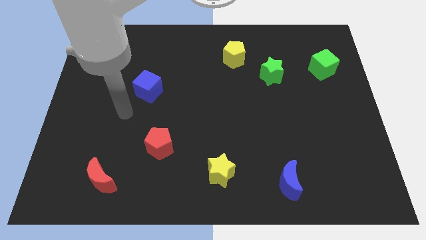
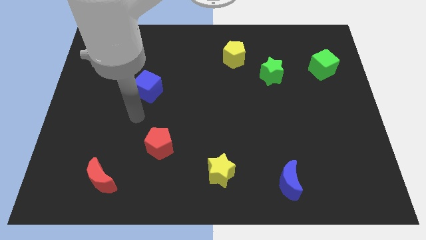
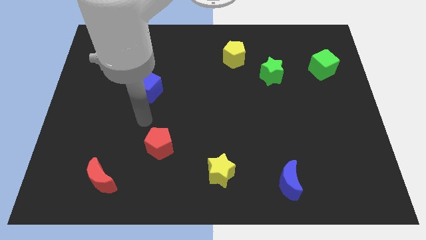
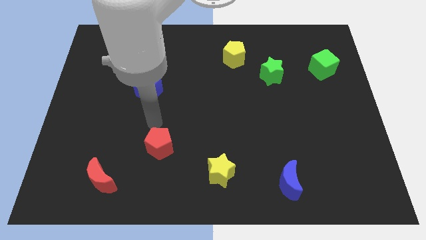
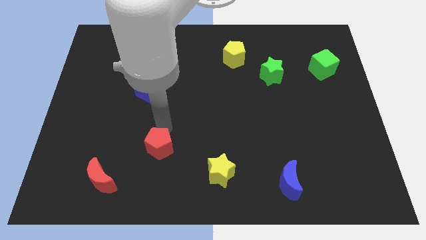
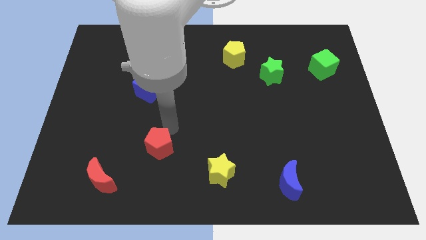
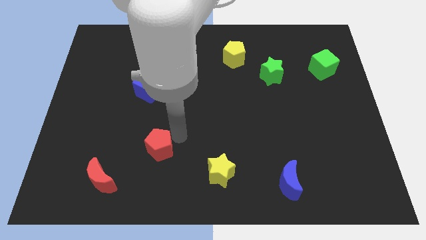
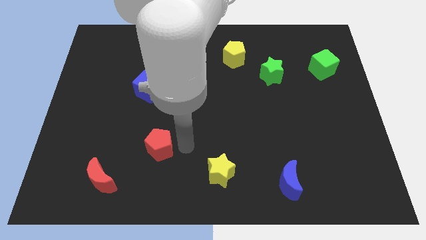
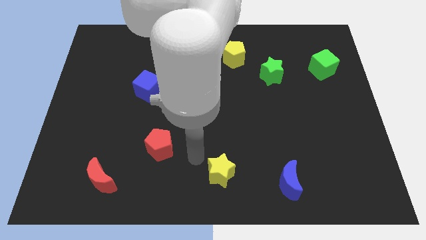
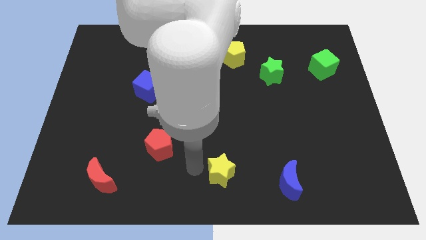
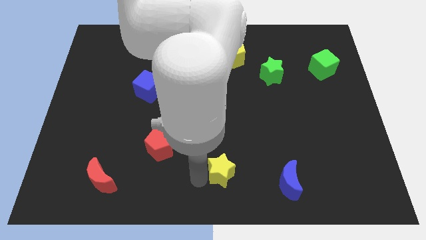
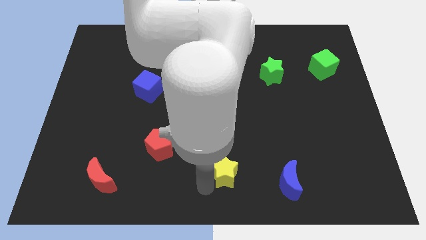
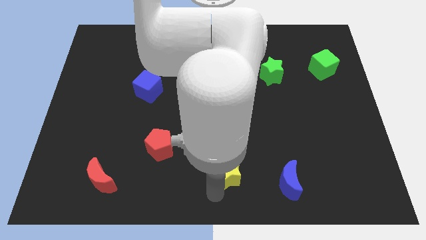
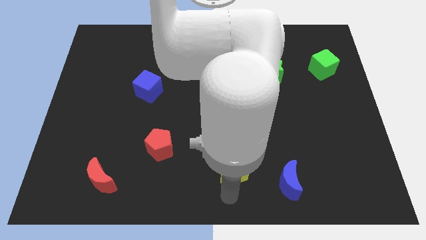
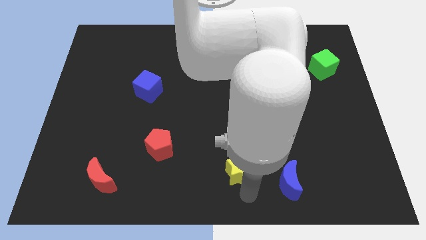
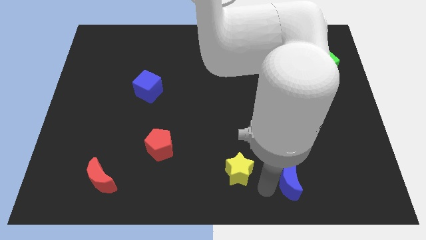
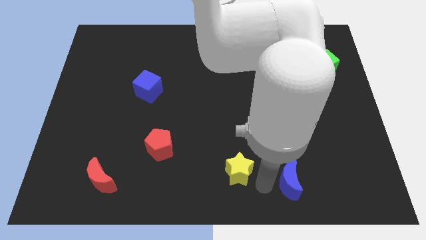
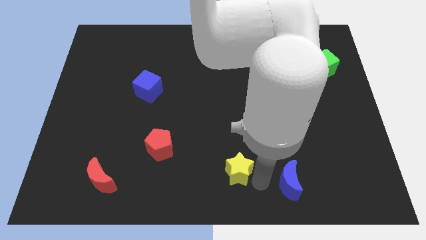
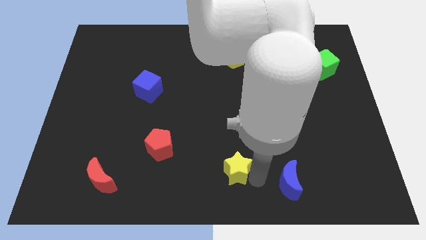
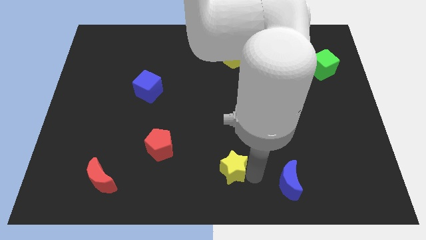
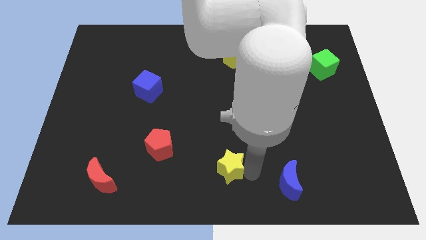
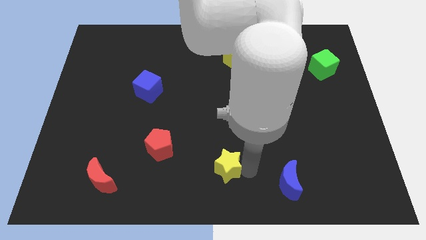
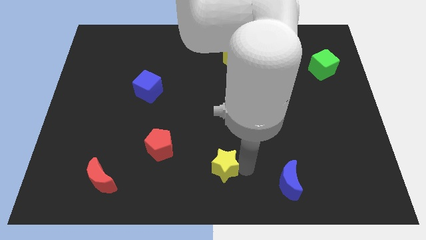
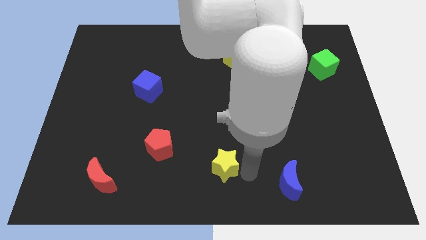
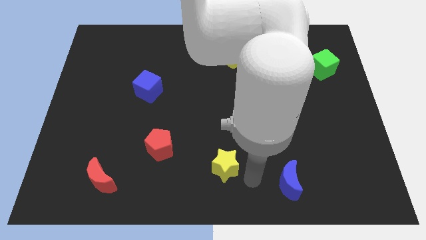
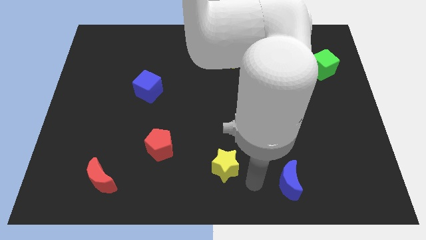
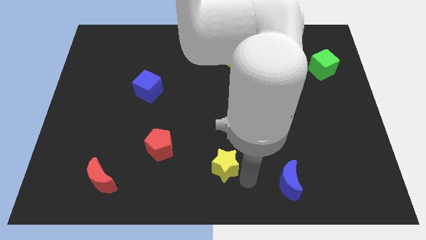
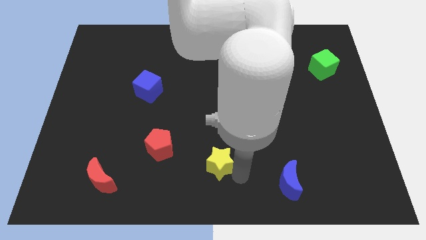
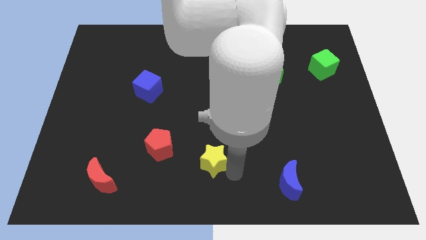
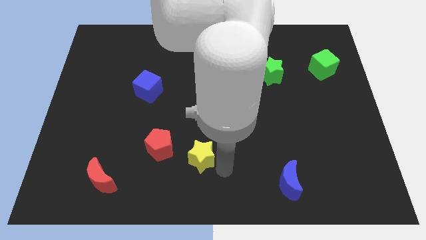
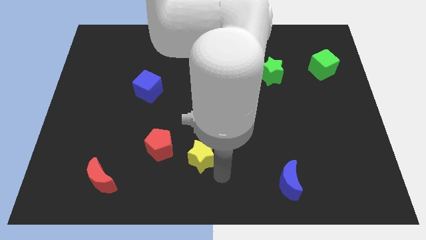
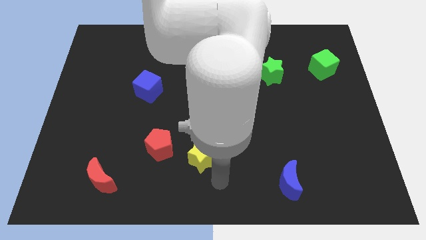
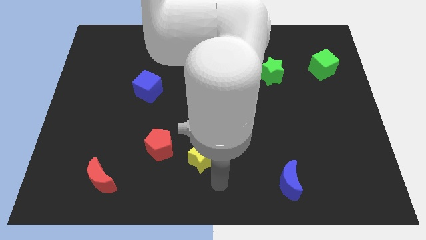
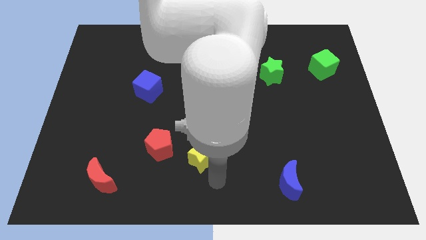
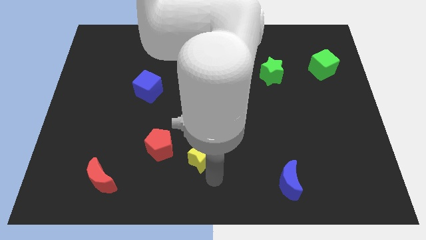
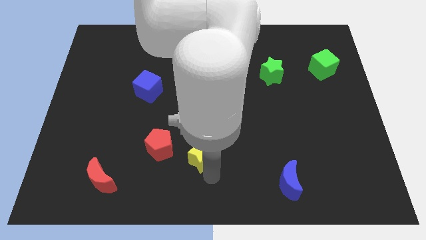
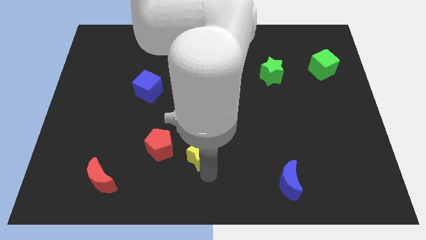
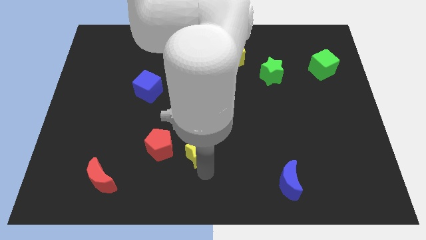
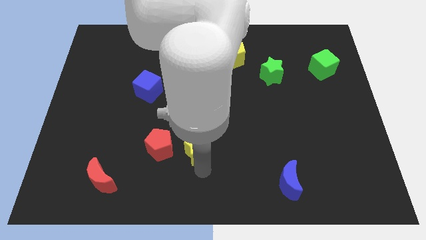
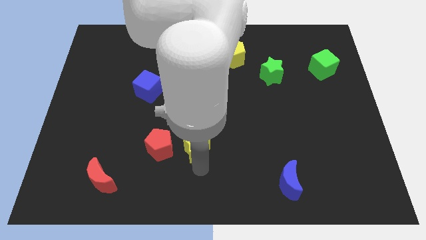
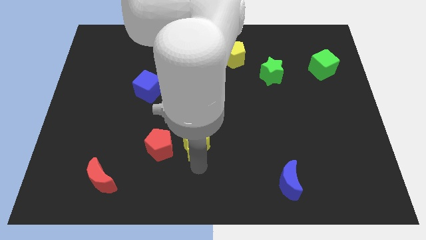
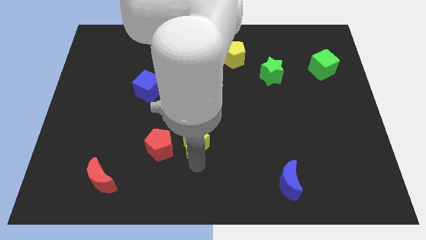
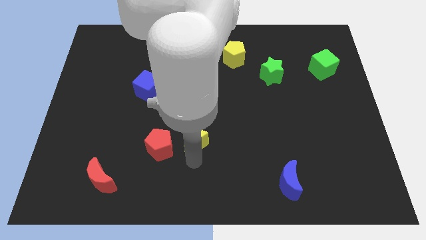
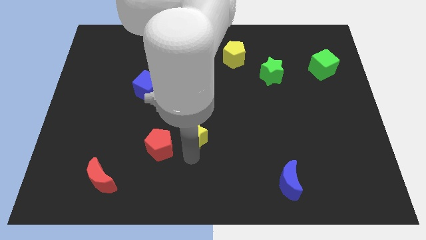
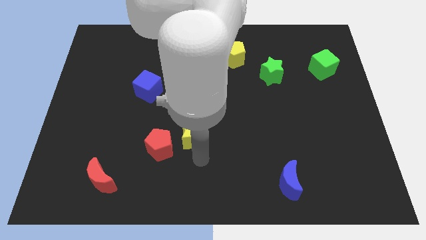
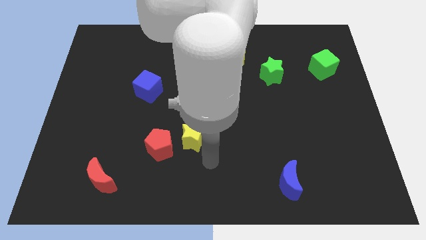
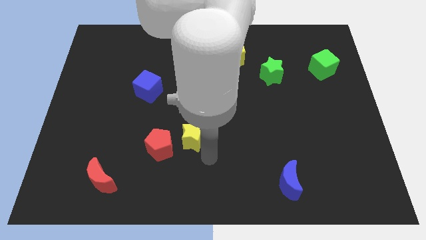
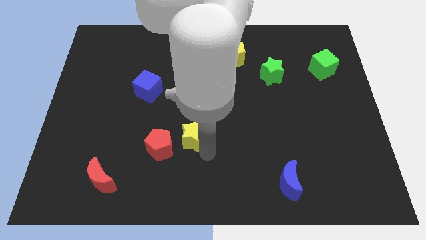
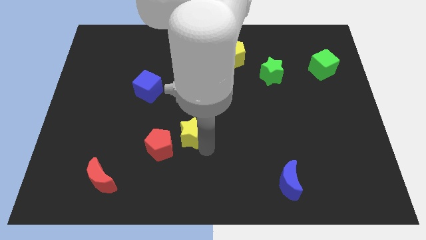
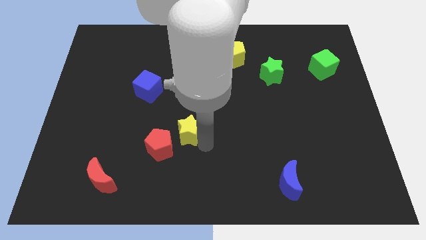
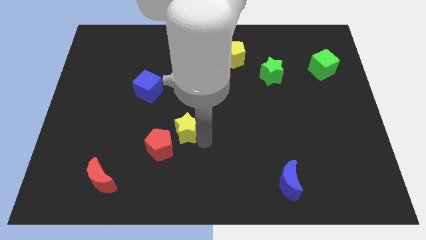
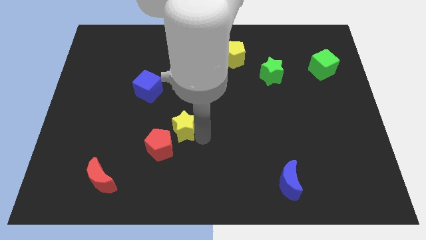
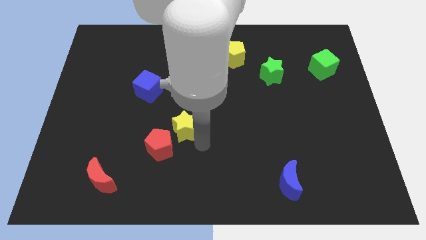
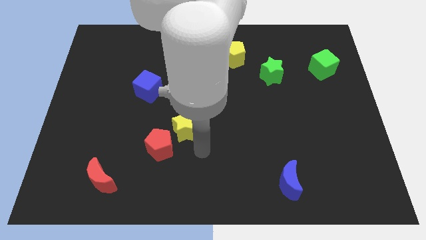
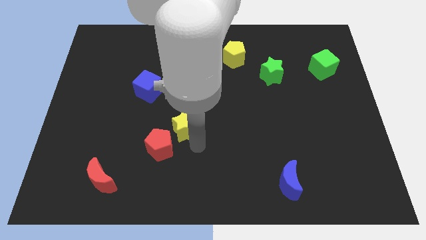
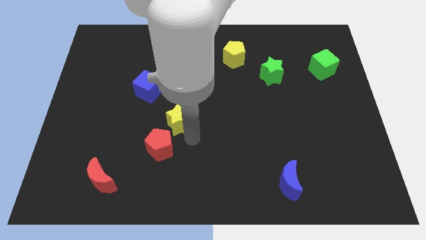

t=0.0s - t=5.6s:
move the yellow star diagonally down and to the right of the blue cube
